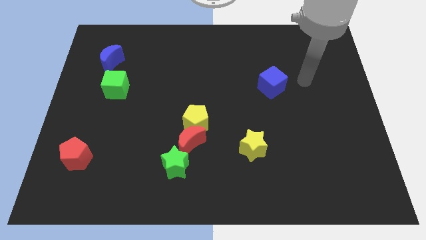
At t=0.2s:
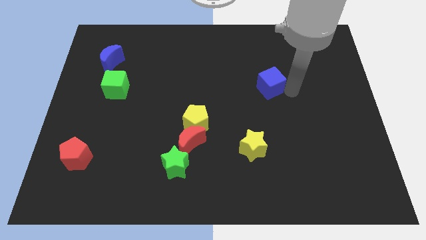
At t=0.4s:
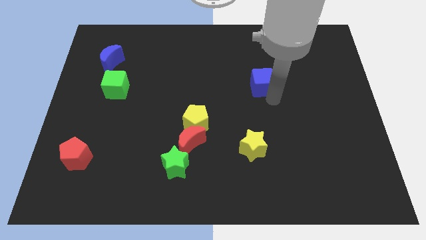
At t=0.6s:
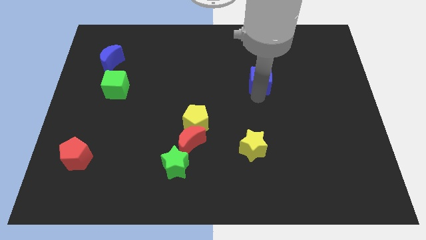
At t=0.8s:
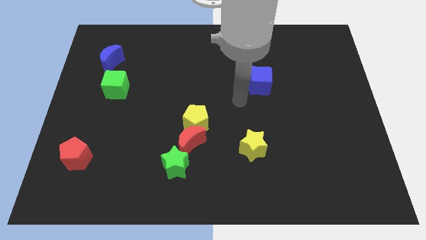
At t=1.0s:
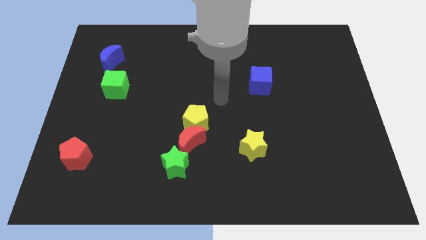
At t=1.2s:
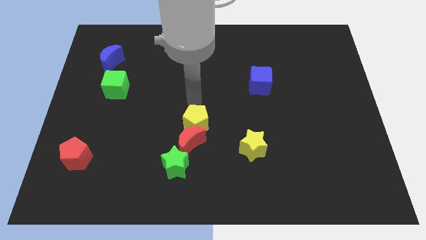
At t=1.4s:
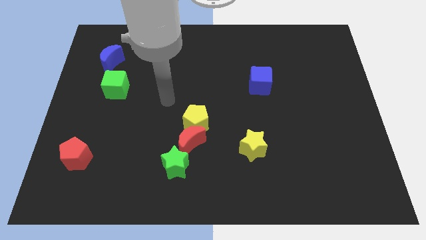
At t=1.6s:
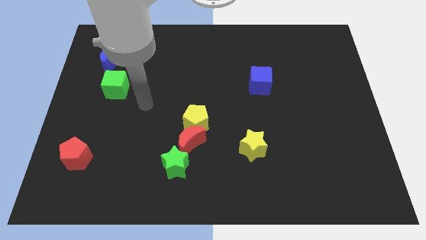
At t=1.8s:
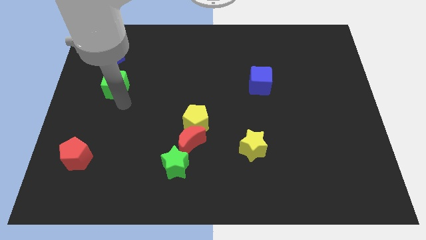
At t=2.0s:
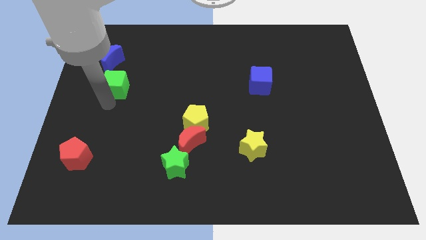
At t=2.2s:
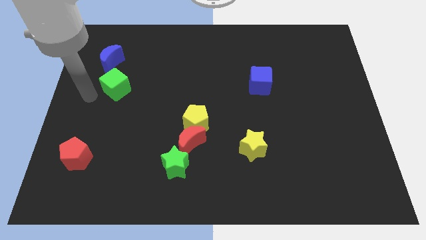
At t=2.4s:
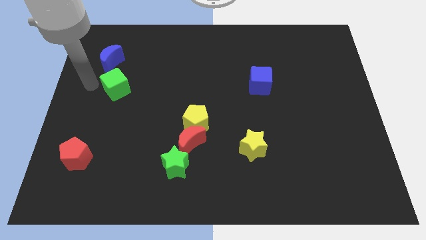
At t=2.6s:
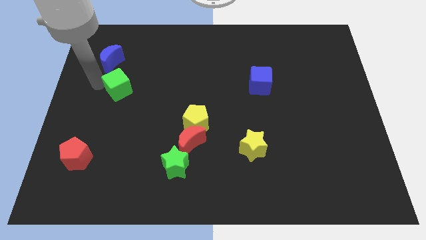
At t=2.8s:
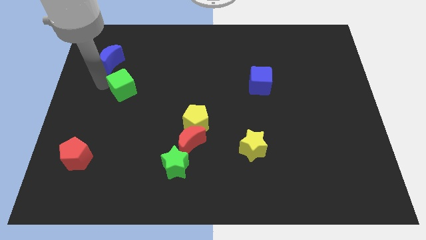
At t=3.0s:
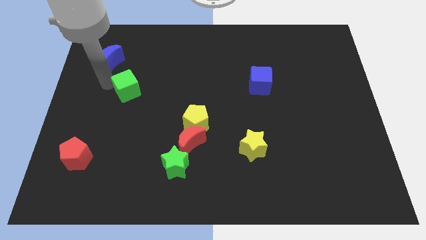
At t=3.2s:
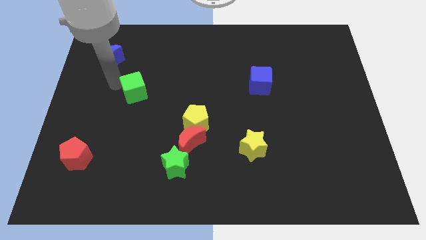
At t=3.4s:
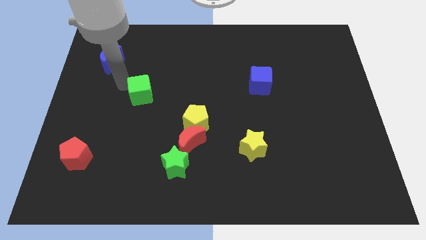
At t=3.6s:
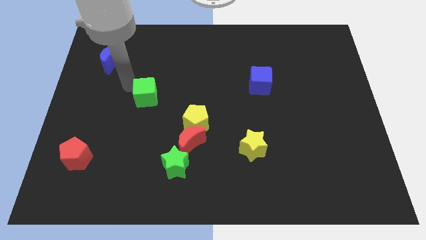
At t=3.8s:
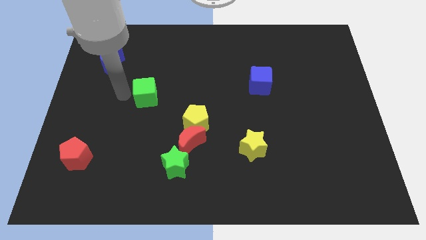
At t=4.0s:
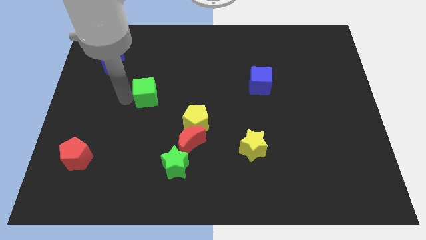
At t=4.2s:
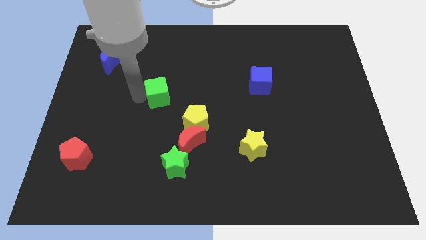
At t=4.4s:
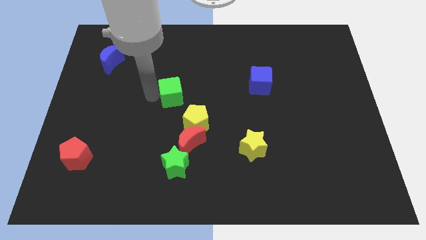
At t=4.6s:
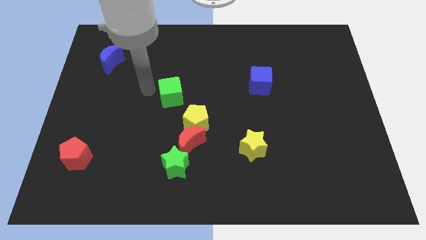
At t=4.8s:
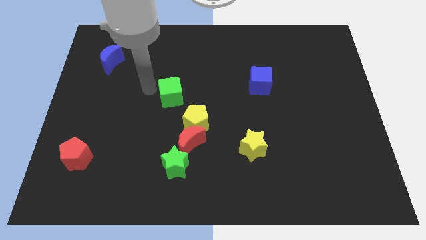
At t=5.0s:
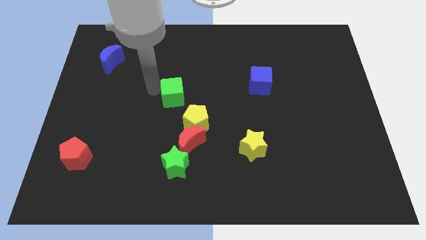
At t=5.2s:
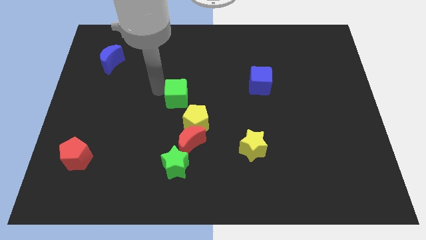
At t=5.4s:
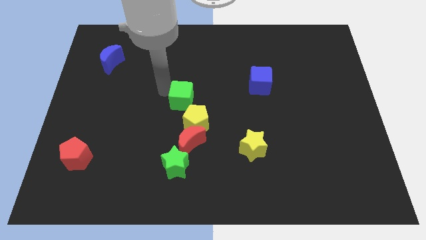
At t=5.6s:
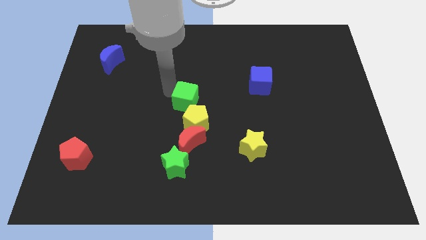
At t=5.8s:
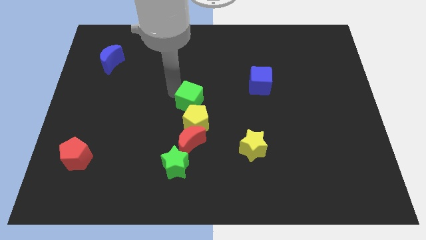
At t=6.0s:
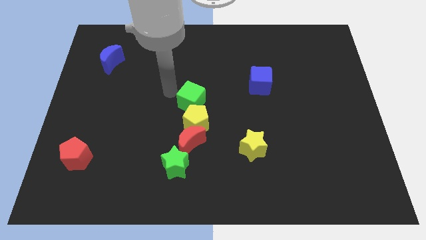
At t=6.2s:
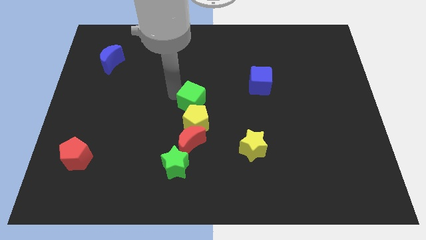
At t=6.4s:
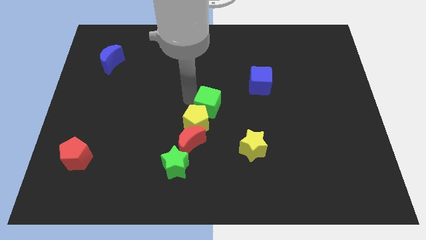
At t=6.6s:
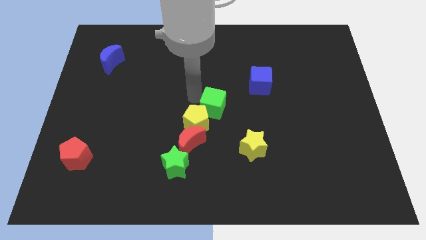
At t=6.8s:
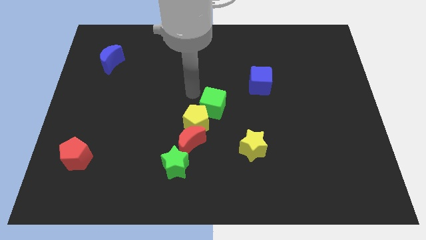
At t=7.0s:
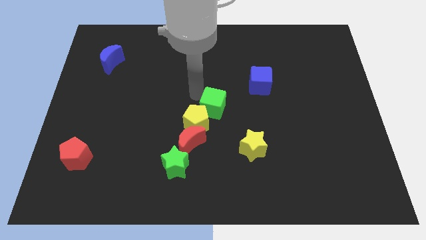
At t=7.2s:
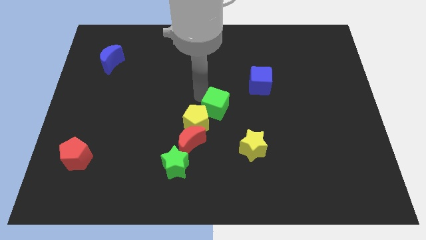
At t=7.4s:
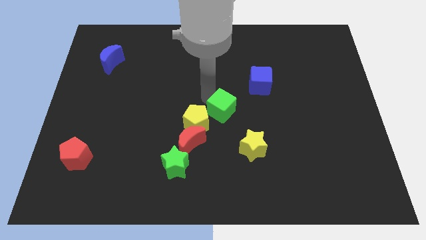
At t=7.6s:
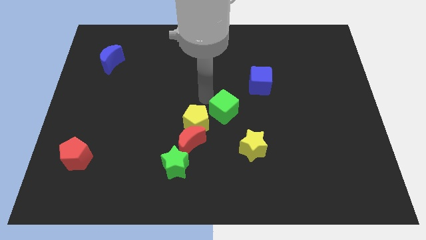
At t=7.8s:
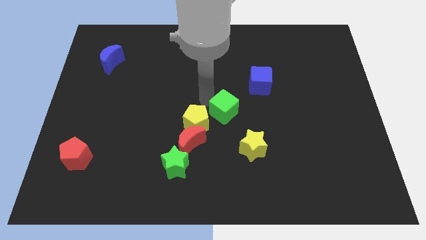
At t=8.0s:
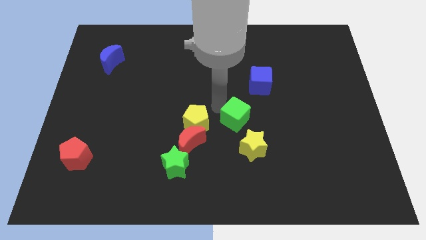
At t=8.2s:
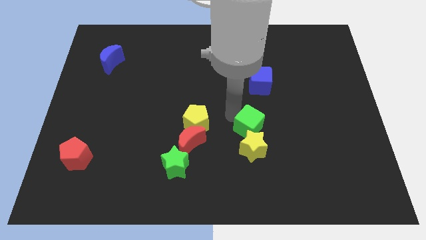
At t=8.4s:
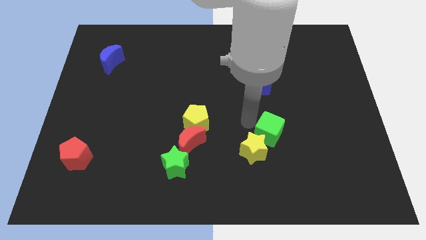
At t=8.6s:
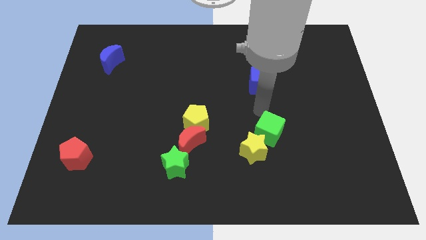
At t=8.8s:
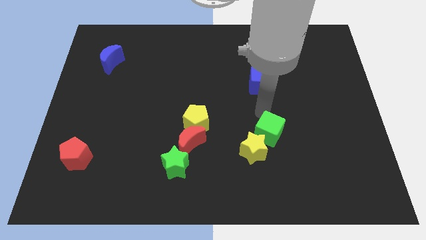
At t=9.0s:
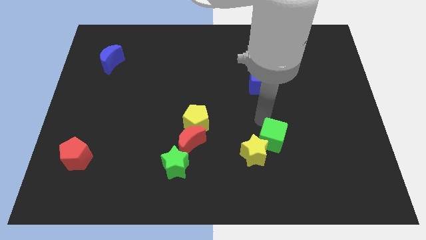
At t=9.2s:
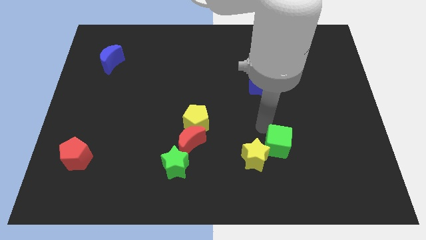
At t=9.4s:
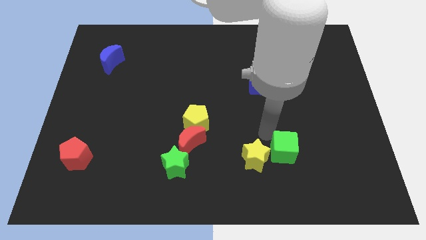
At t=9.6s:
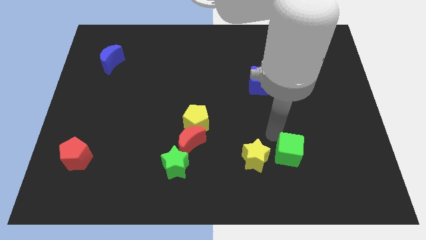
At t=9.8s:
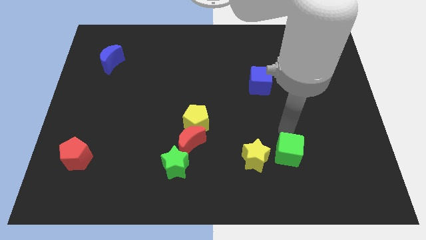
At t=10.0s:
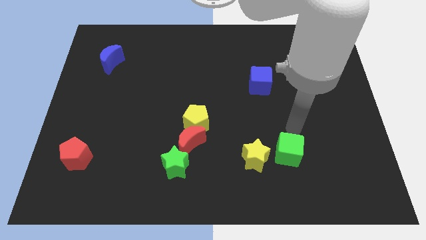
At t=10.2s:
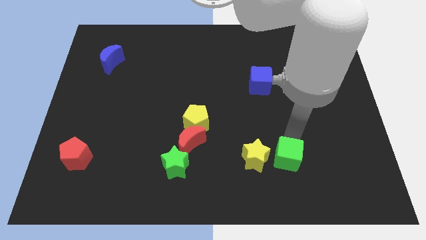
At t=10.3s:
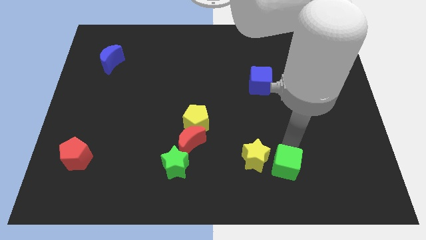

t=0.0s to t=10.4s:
slide the green cube to the bottom right side of the yellow star
